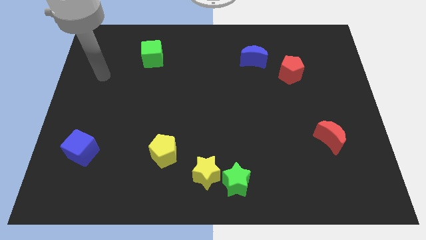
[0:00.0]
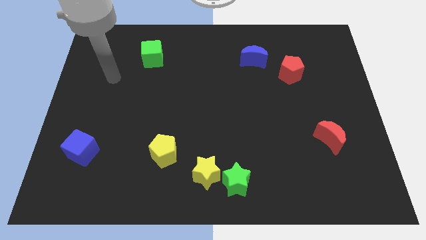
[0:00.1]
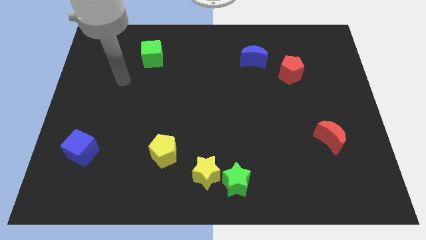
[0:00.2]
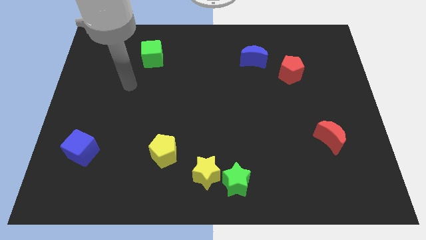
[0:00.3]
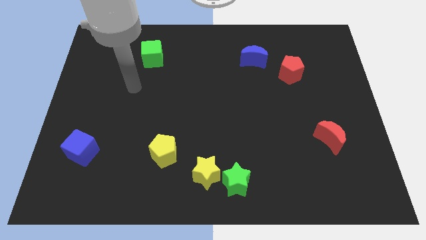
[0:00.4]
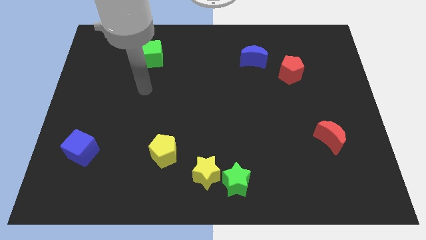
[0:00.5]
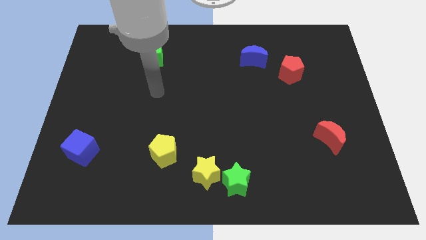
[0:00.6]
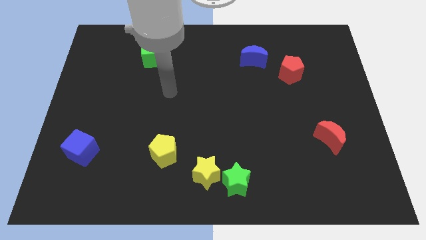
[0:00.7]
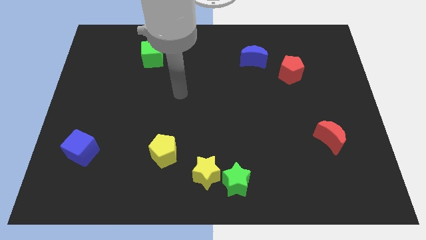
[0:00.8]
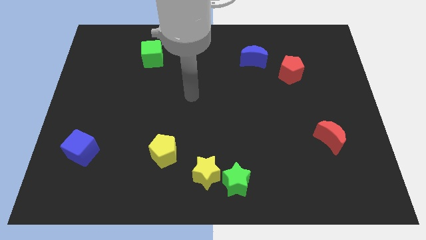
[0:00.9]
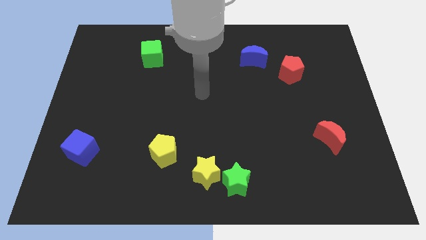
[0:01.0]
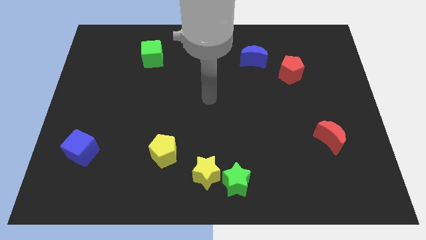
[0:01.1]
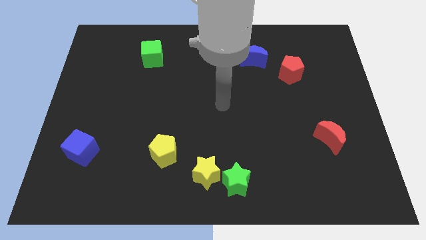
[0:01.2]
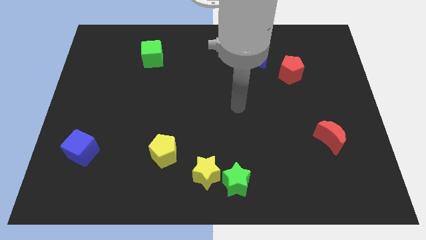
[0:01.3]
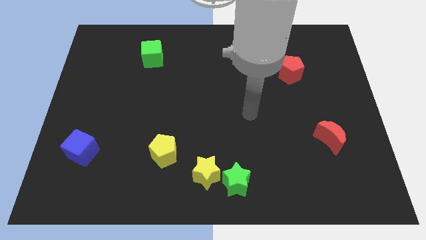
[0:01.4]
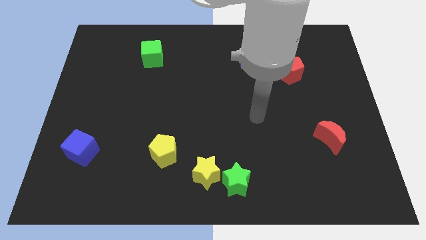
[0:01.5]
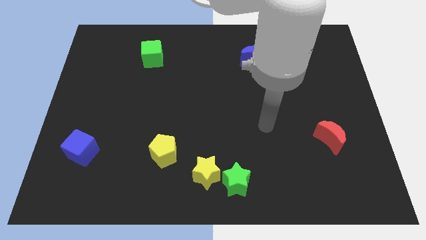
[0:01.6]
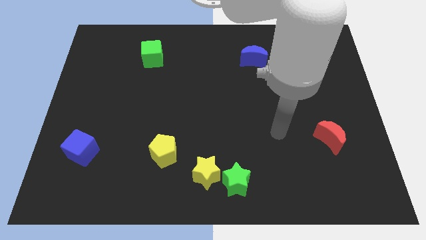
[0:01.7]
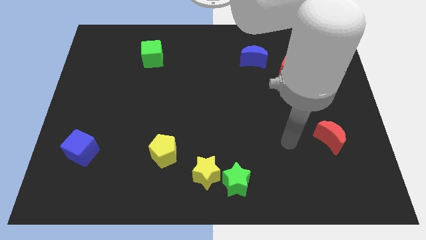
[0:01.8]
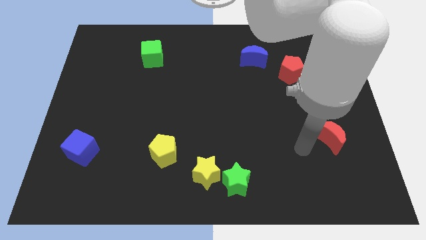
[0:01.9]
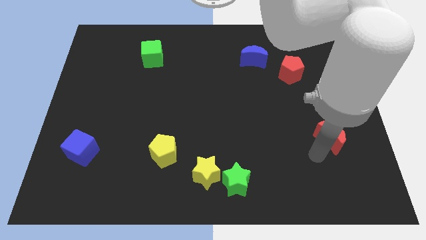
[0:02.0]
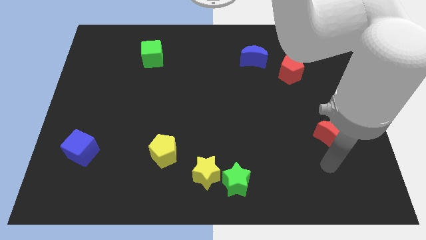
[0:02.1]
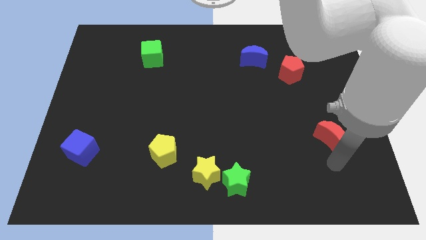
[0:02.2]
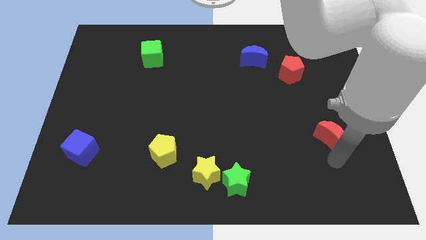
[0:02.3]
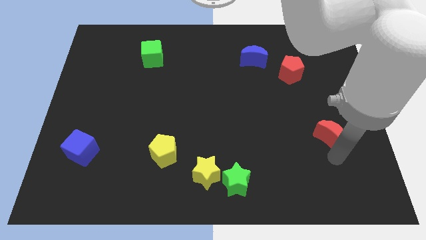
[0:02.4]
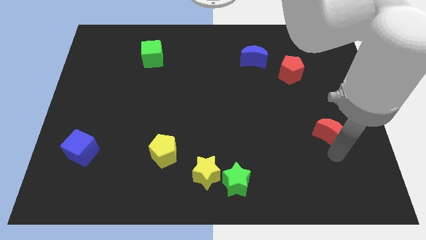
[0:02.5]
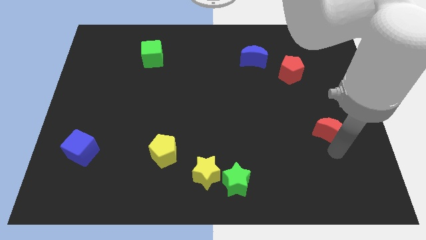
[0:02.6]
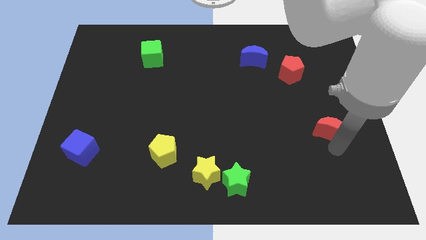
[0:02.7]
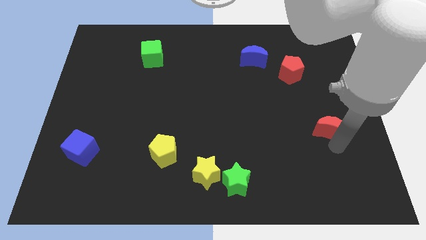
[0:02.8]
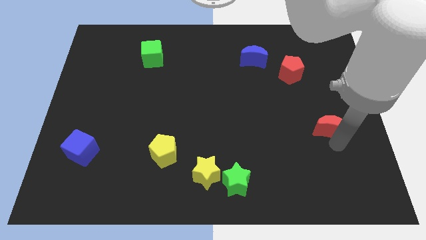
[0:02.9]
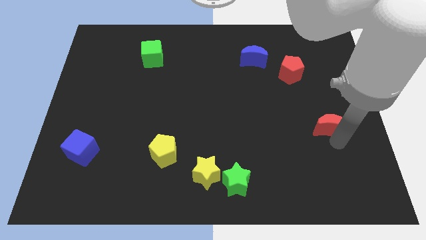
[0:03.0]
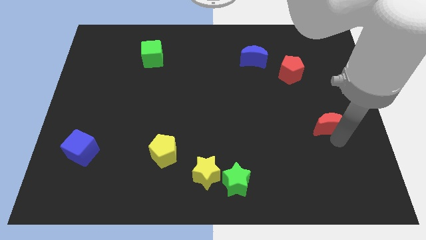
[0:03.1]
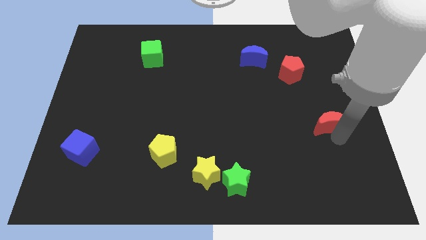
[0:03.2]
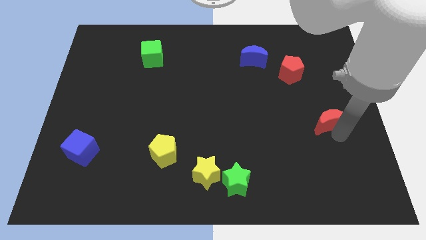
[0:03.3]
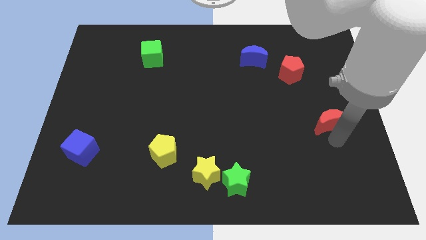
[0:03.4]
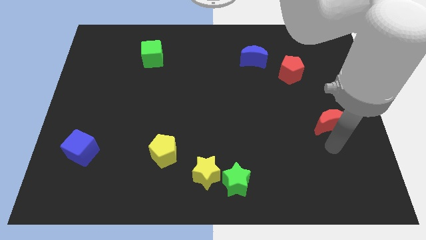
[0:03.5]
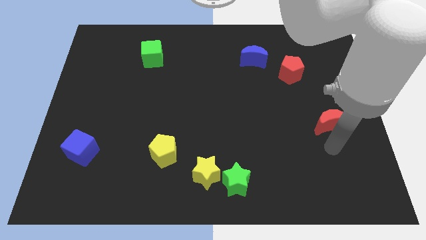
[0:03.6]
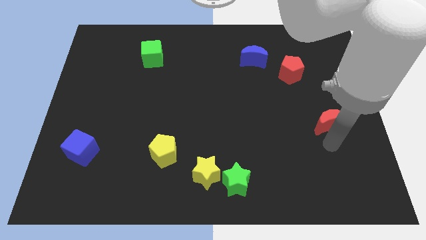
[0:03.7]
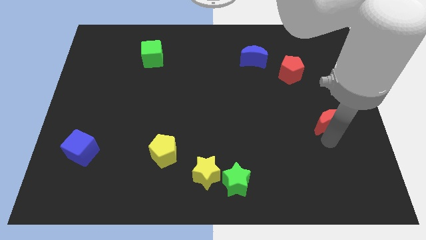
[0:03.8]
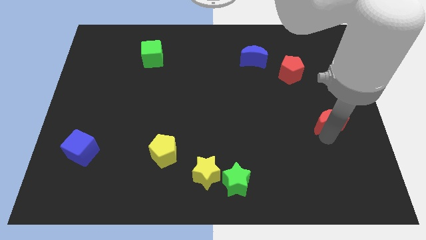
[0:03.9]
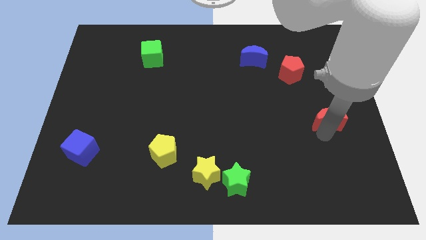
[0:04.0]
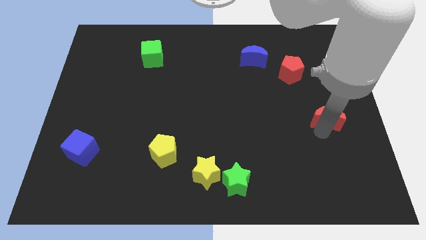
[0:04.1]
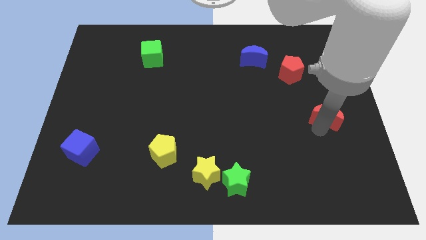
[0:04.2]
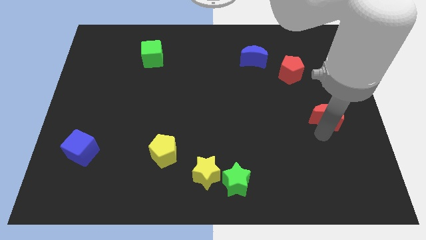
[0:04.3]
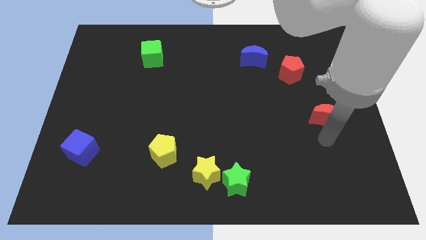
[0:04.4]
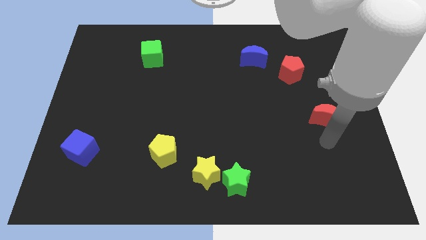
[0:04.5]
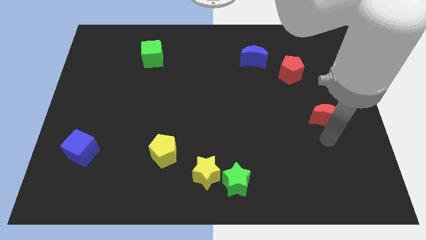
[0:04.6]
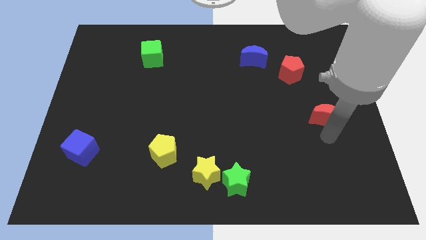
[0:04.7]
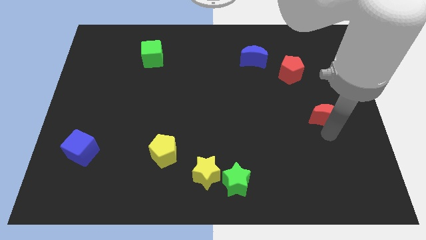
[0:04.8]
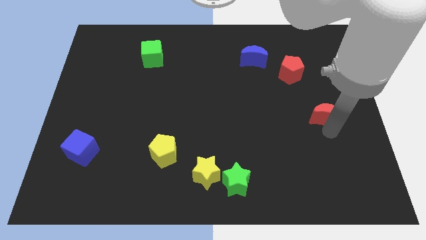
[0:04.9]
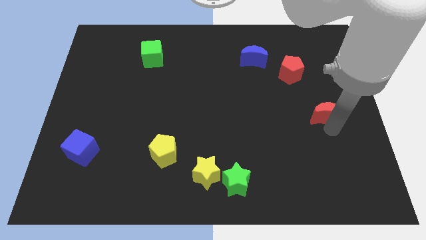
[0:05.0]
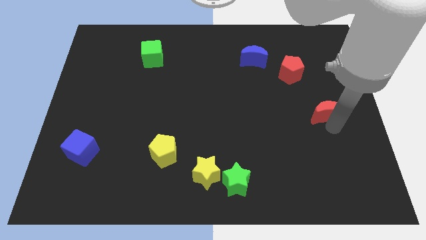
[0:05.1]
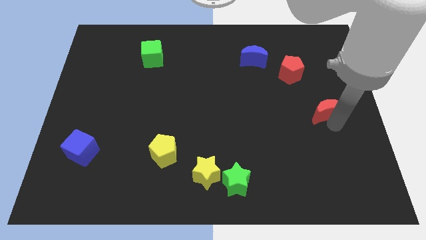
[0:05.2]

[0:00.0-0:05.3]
slightly move the red moon upwards

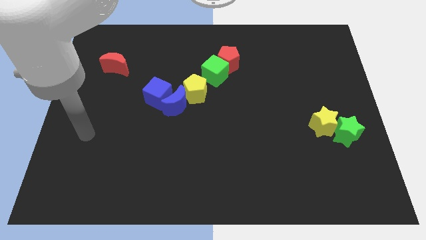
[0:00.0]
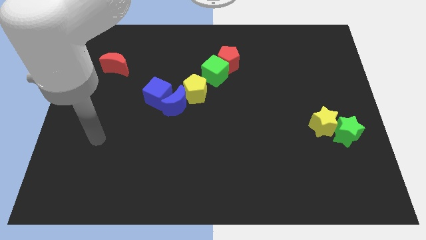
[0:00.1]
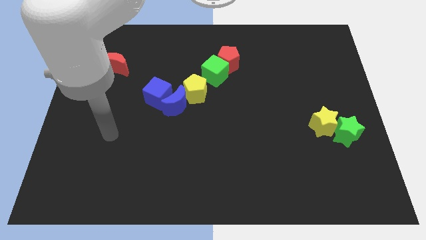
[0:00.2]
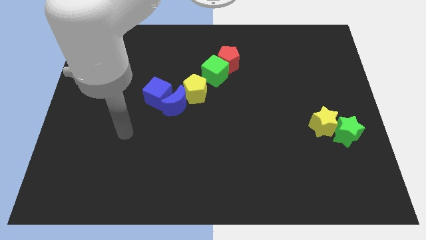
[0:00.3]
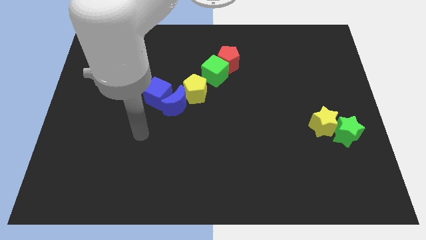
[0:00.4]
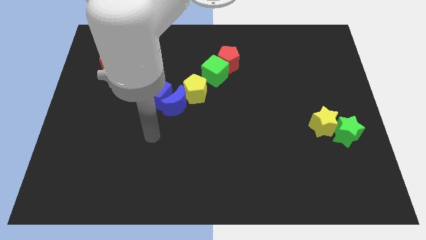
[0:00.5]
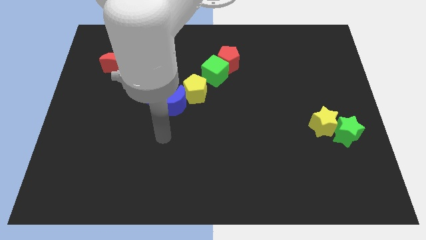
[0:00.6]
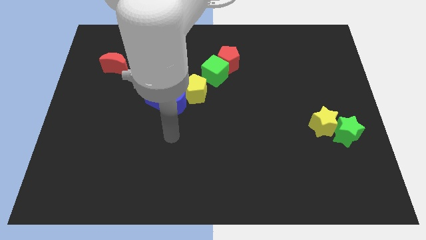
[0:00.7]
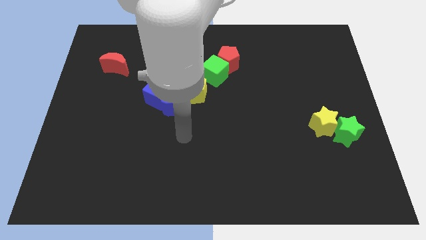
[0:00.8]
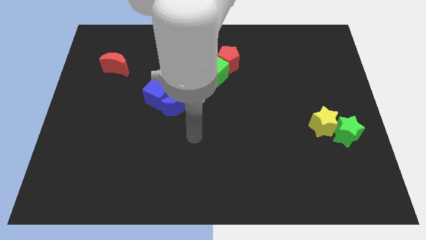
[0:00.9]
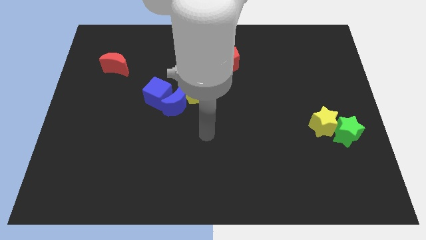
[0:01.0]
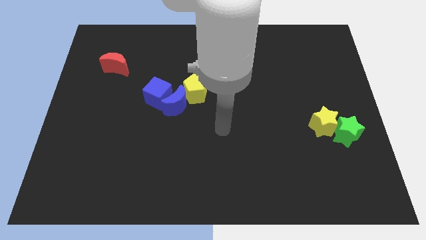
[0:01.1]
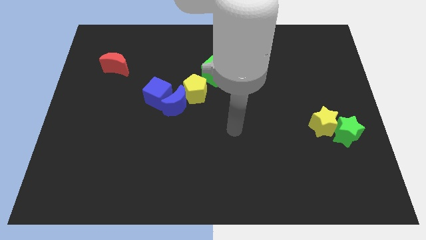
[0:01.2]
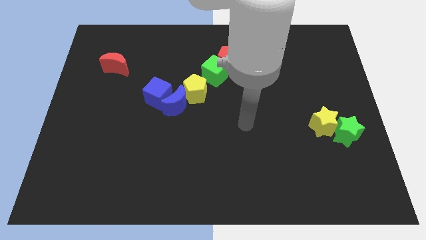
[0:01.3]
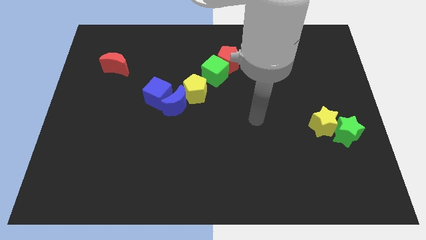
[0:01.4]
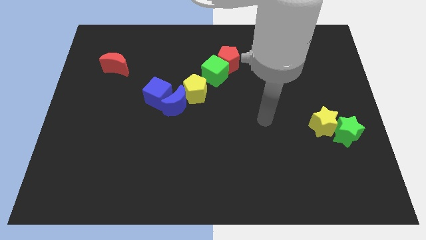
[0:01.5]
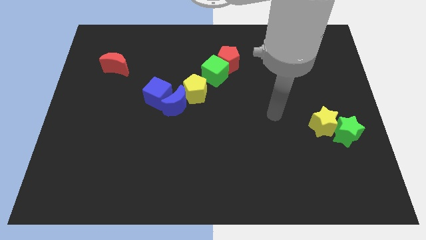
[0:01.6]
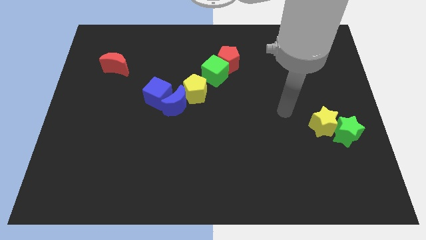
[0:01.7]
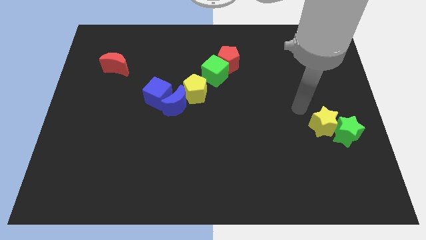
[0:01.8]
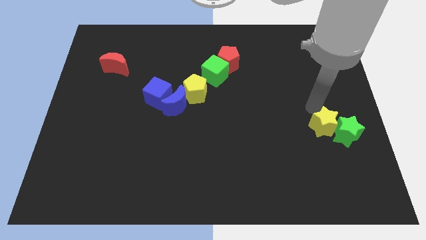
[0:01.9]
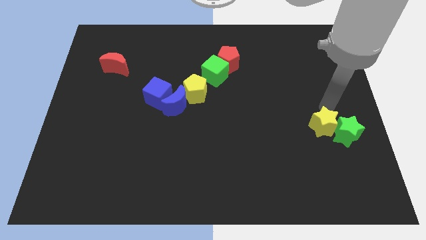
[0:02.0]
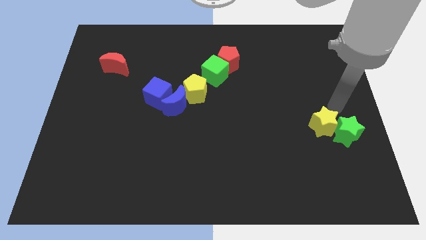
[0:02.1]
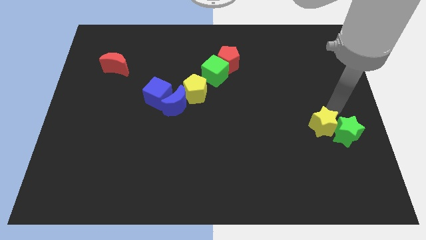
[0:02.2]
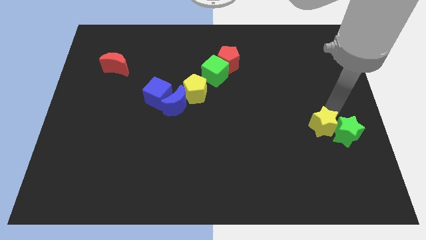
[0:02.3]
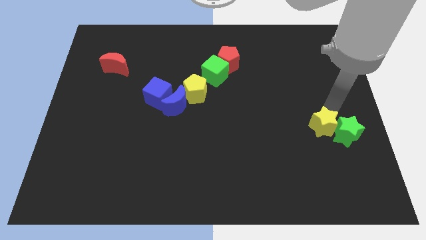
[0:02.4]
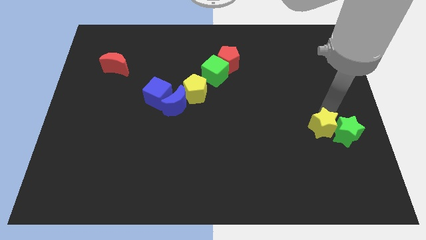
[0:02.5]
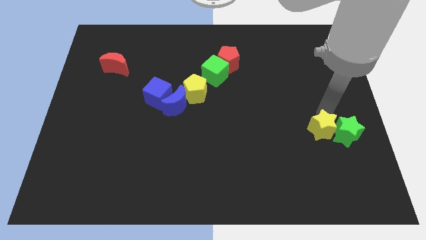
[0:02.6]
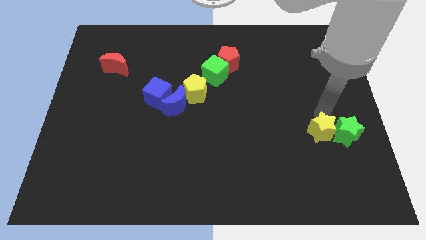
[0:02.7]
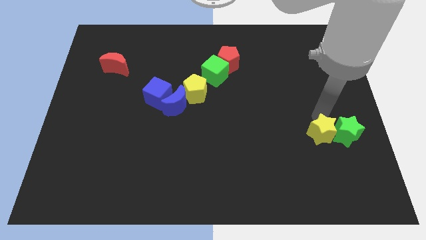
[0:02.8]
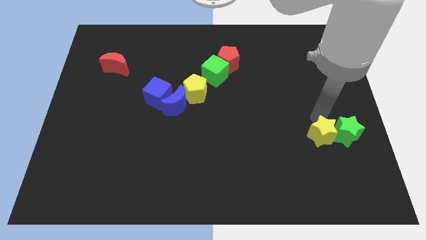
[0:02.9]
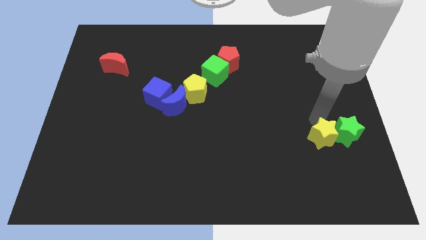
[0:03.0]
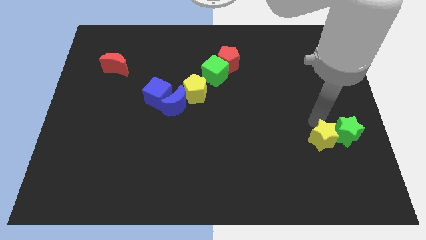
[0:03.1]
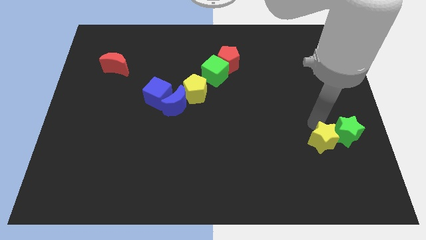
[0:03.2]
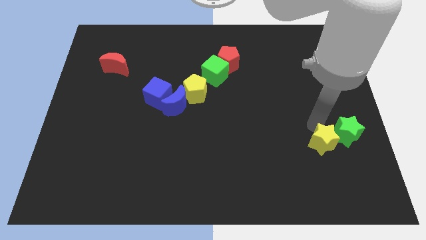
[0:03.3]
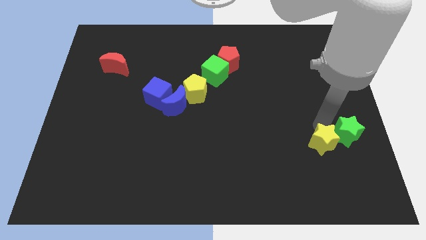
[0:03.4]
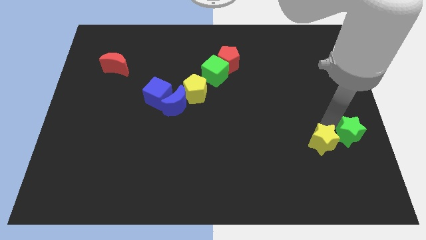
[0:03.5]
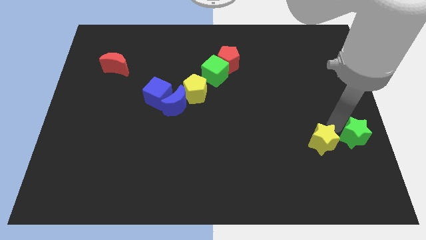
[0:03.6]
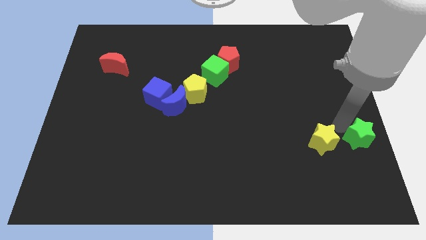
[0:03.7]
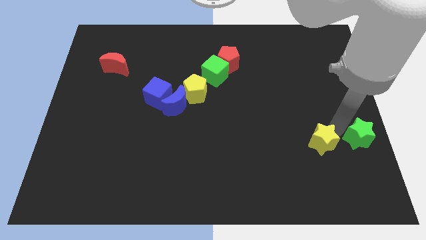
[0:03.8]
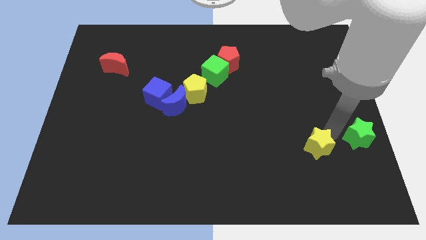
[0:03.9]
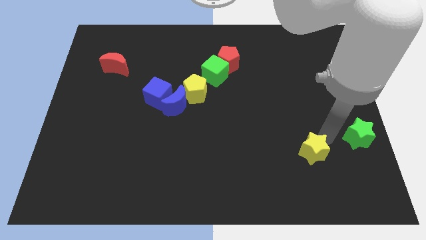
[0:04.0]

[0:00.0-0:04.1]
move the yellow star down and then to the left a little
